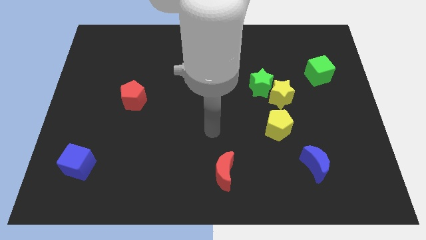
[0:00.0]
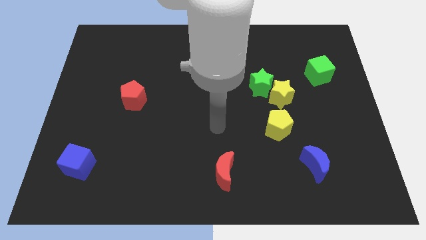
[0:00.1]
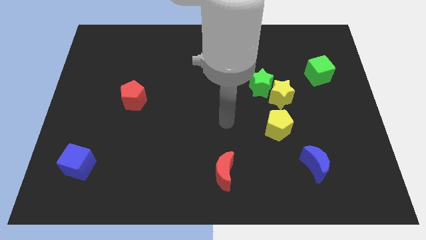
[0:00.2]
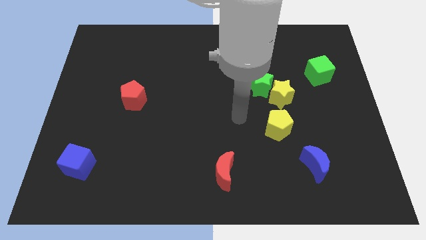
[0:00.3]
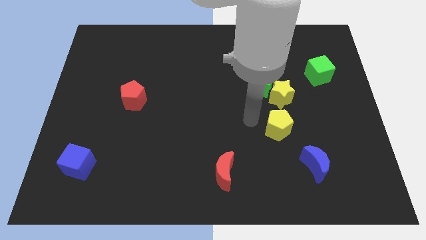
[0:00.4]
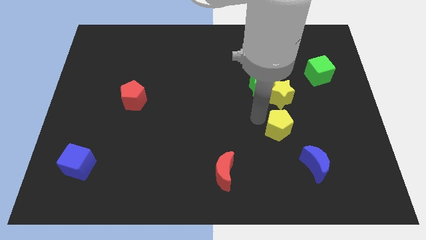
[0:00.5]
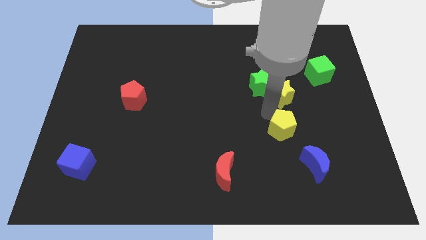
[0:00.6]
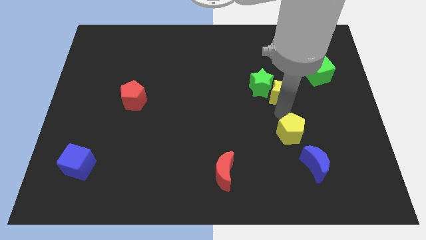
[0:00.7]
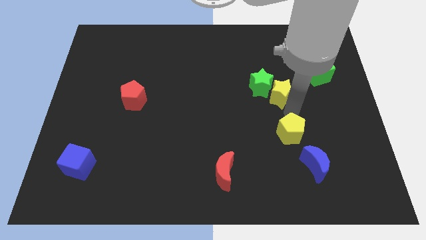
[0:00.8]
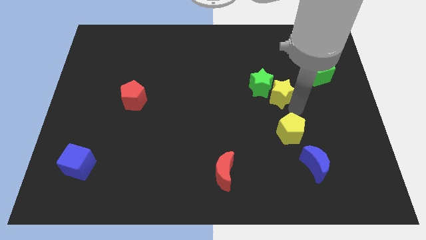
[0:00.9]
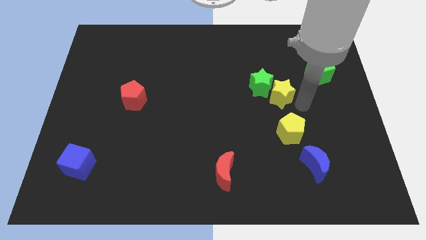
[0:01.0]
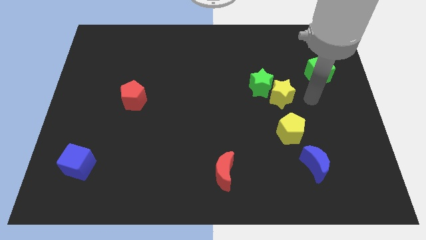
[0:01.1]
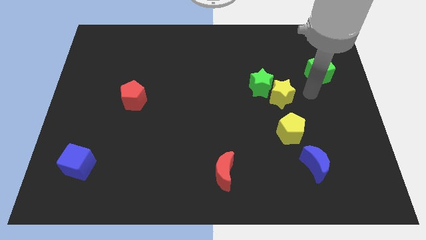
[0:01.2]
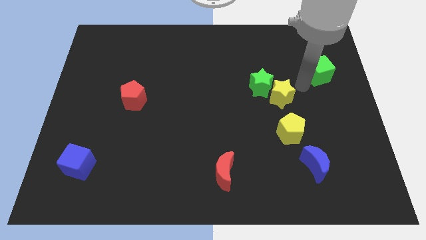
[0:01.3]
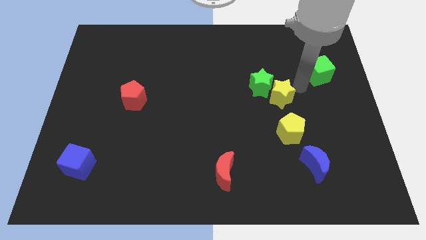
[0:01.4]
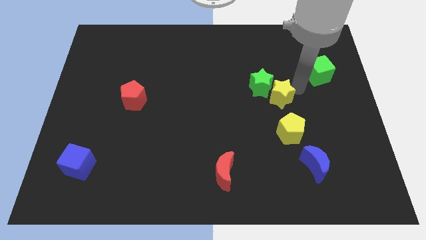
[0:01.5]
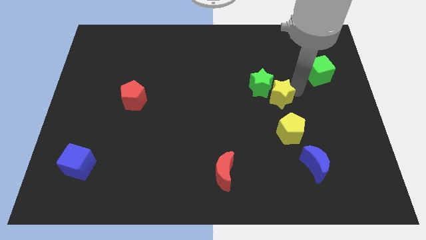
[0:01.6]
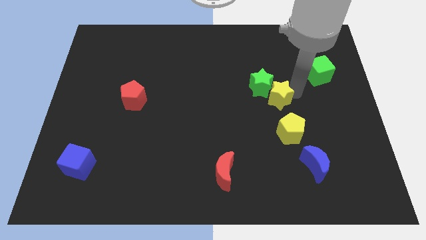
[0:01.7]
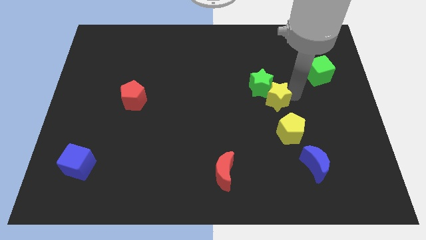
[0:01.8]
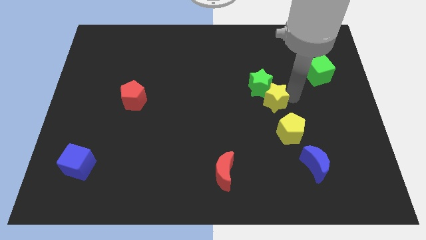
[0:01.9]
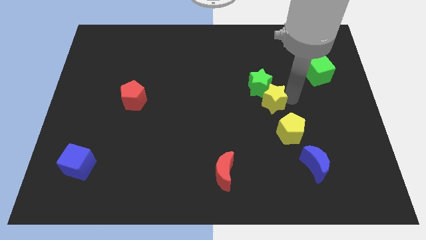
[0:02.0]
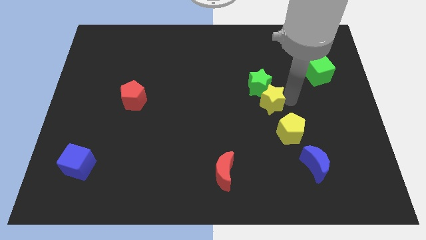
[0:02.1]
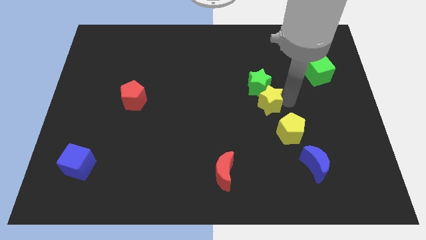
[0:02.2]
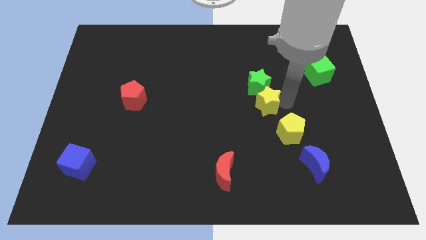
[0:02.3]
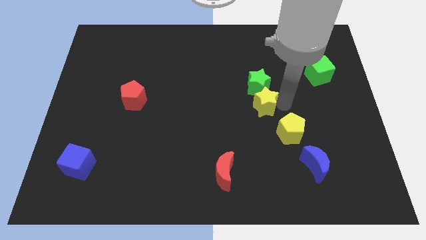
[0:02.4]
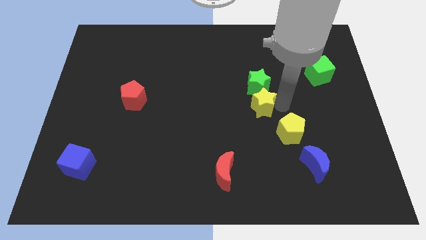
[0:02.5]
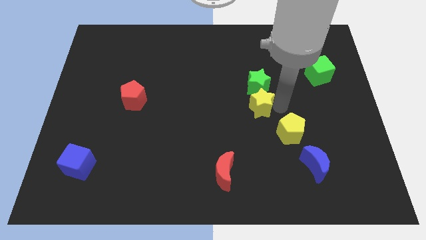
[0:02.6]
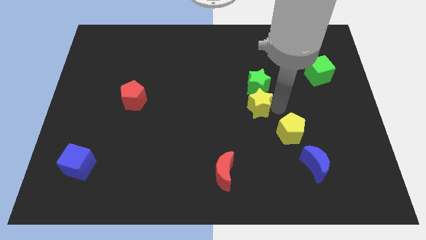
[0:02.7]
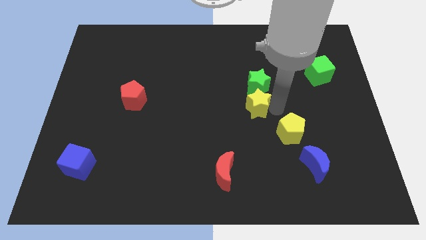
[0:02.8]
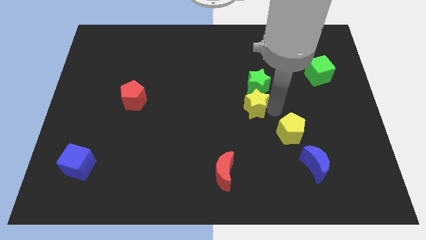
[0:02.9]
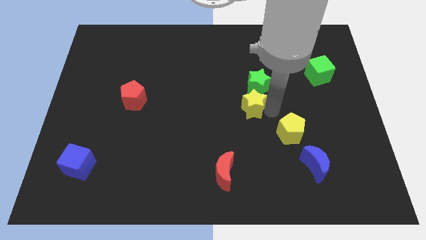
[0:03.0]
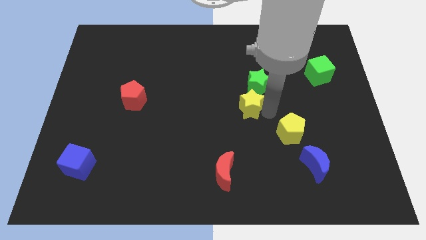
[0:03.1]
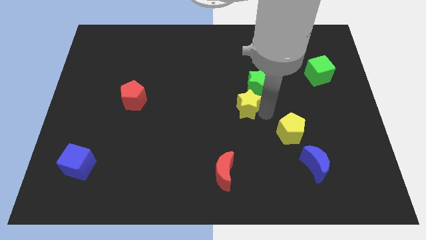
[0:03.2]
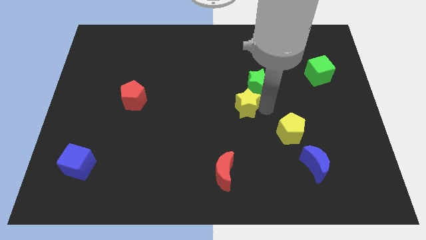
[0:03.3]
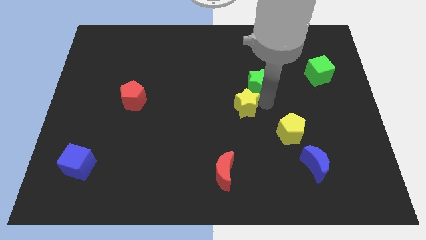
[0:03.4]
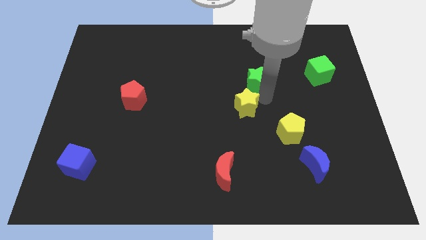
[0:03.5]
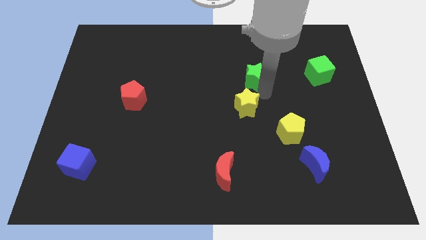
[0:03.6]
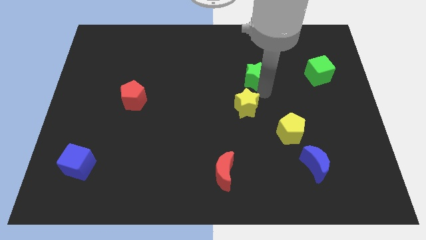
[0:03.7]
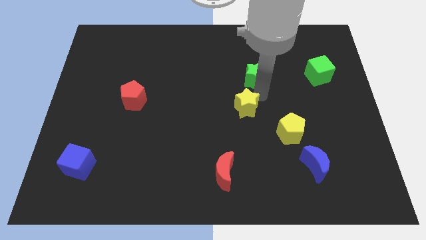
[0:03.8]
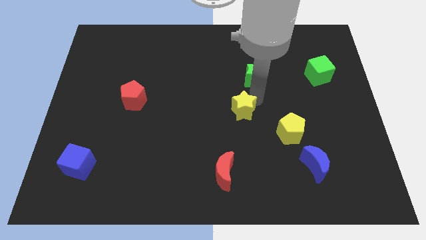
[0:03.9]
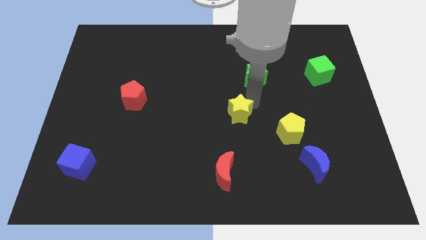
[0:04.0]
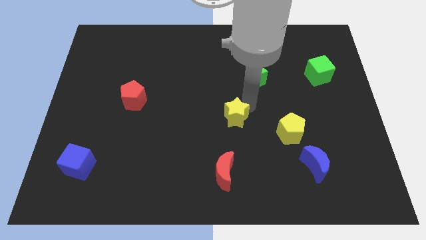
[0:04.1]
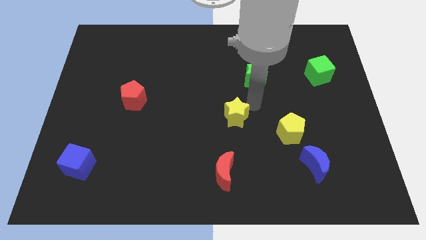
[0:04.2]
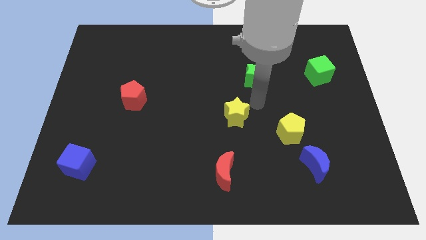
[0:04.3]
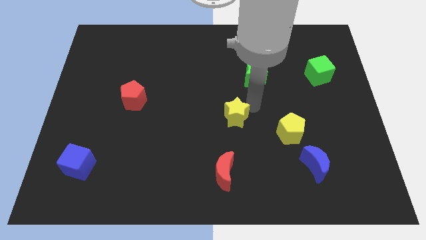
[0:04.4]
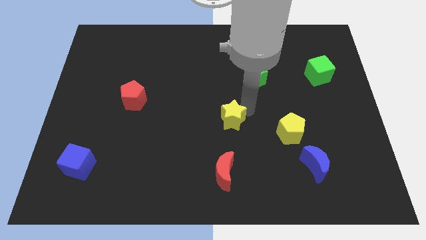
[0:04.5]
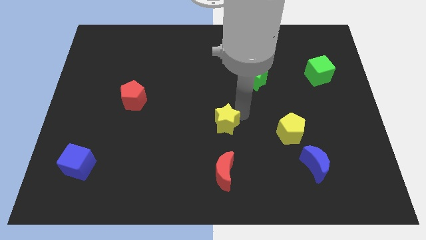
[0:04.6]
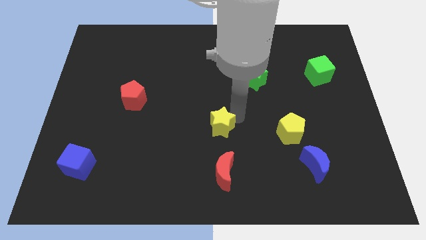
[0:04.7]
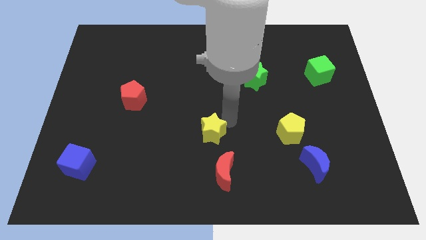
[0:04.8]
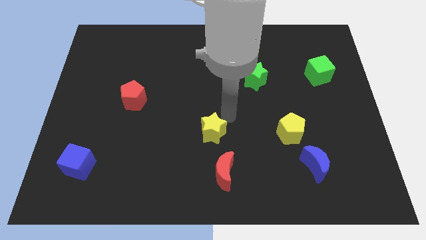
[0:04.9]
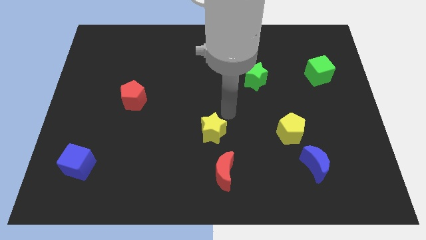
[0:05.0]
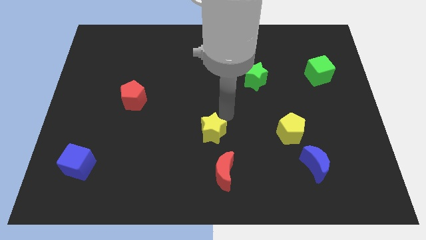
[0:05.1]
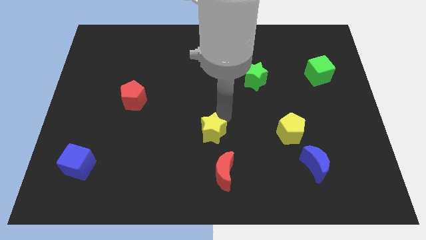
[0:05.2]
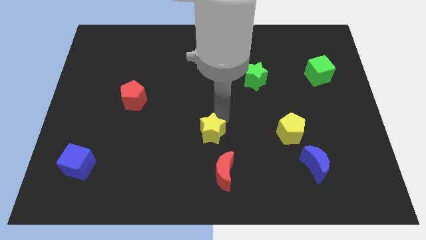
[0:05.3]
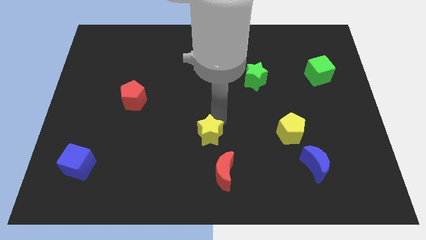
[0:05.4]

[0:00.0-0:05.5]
slide the yellow star to the top left side of the red moon

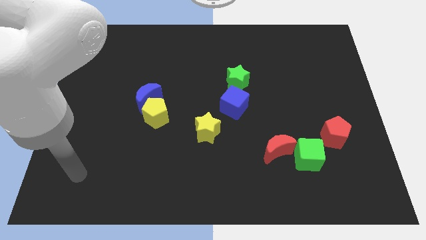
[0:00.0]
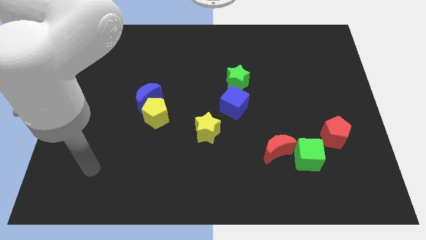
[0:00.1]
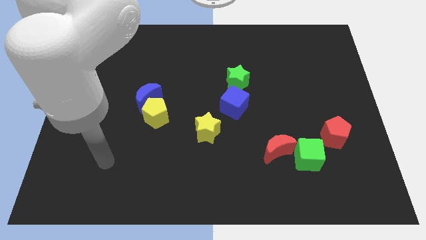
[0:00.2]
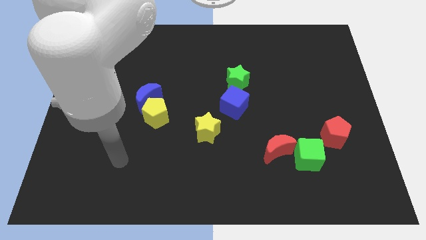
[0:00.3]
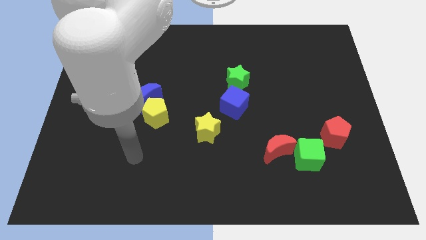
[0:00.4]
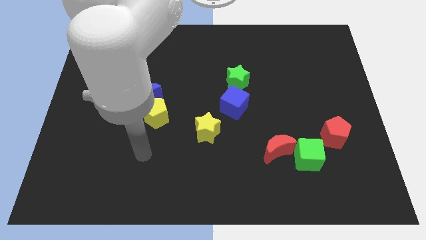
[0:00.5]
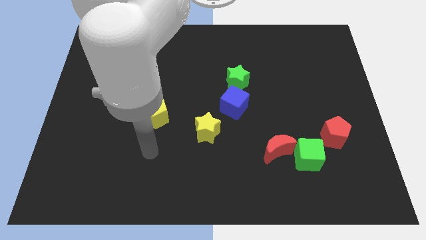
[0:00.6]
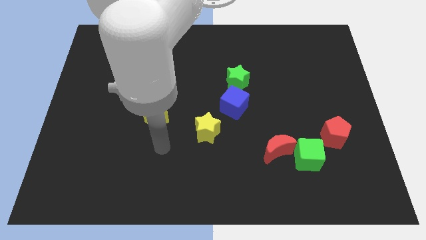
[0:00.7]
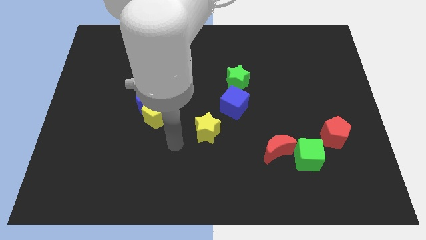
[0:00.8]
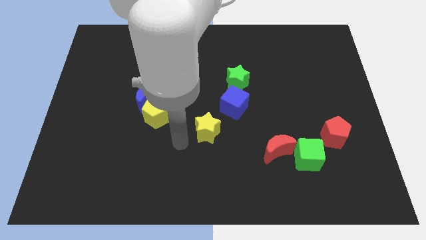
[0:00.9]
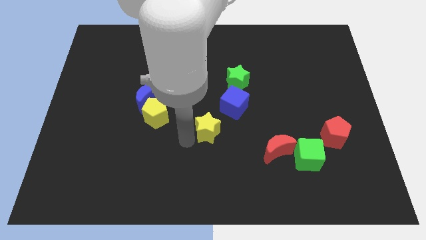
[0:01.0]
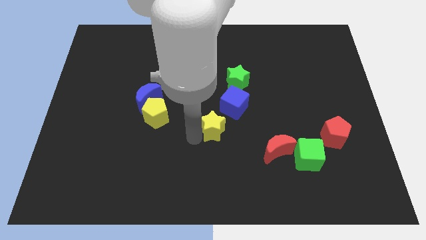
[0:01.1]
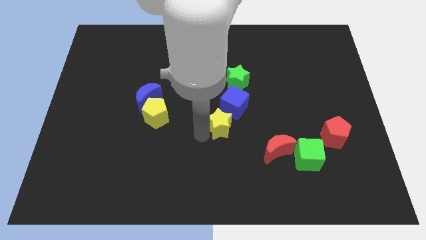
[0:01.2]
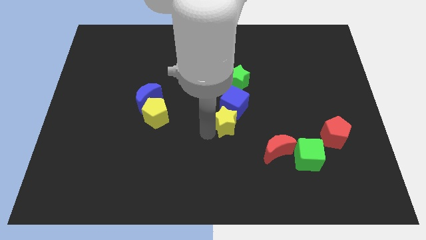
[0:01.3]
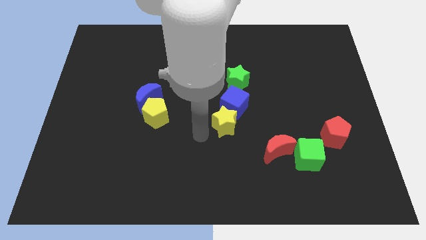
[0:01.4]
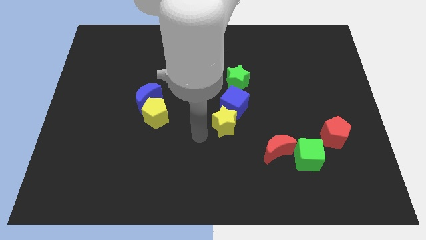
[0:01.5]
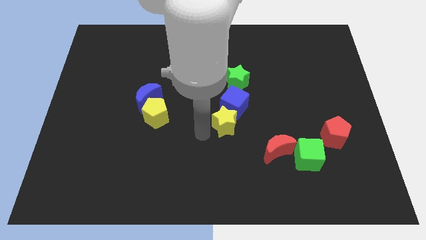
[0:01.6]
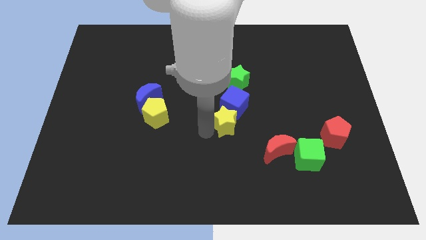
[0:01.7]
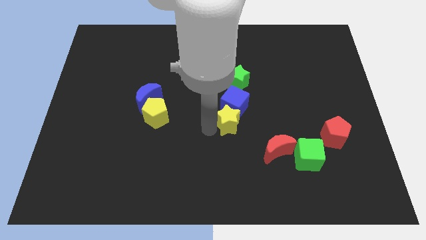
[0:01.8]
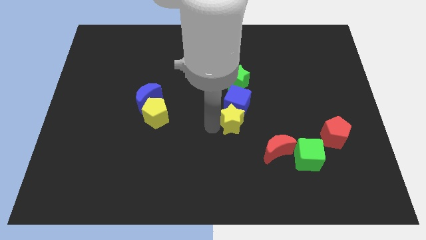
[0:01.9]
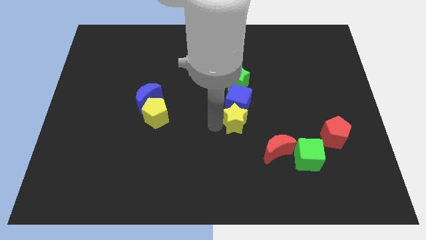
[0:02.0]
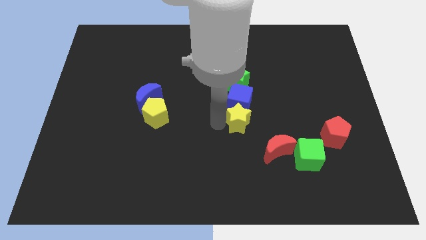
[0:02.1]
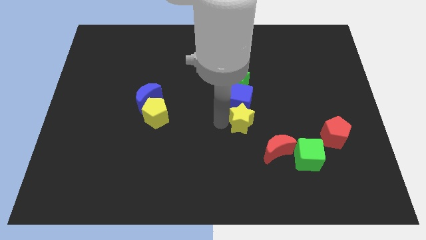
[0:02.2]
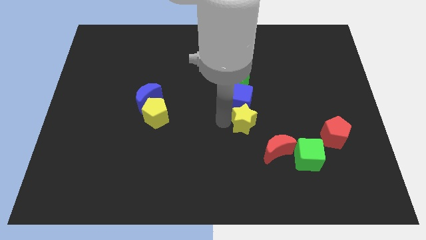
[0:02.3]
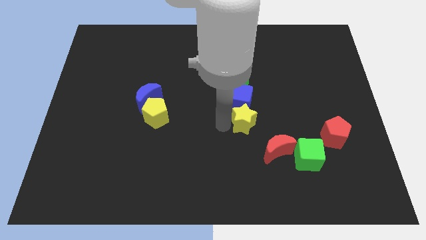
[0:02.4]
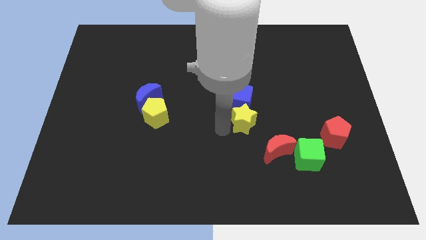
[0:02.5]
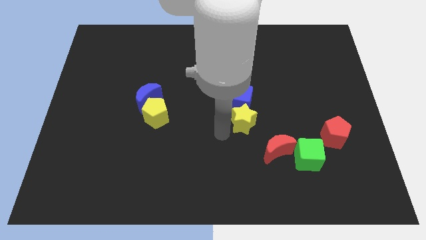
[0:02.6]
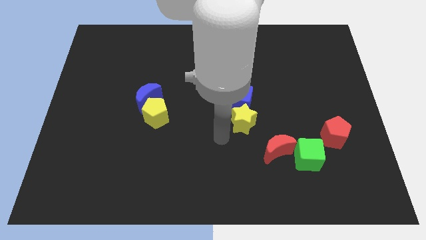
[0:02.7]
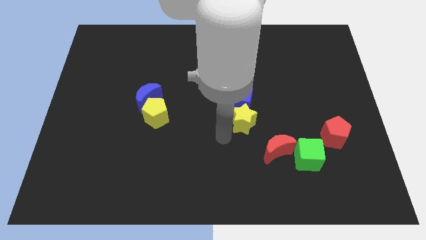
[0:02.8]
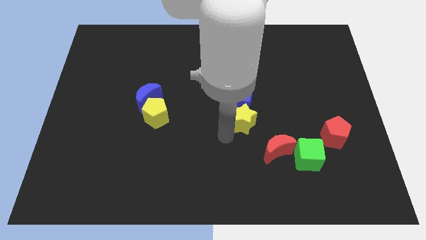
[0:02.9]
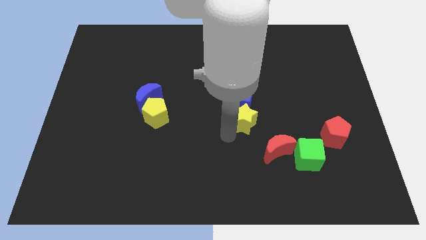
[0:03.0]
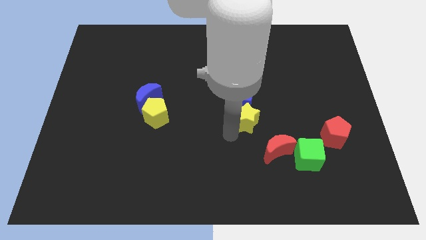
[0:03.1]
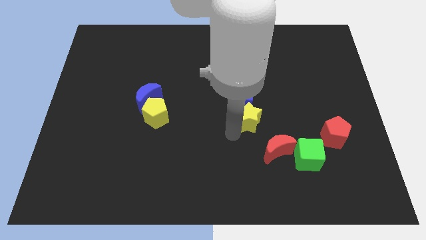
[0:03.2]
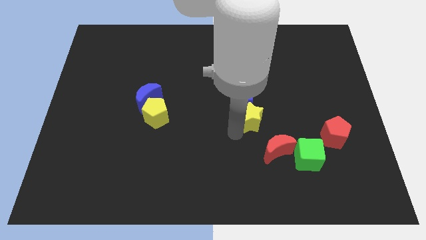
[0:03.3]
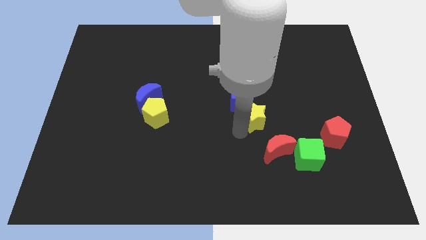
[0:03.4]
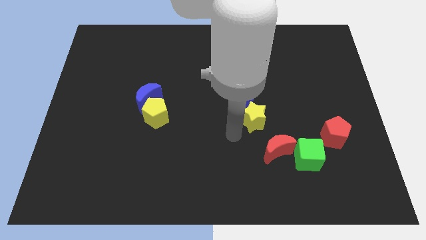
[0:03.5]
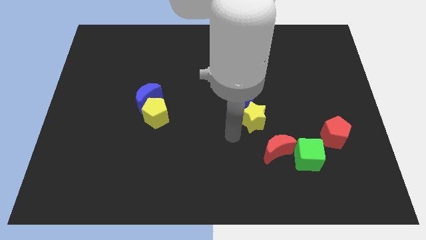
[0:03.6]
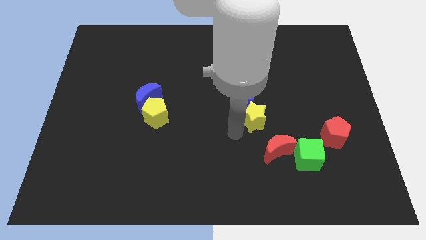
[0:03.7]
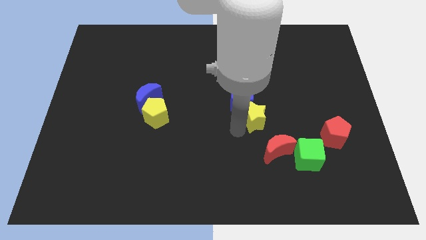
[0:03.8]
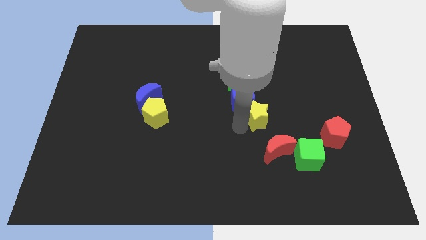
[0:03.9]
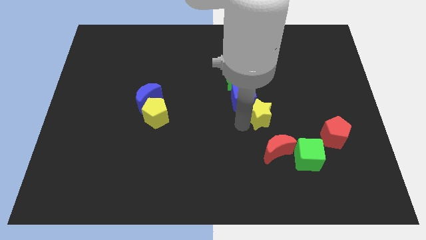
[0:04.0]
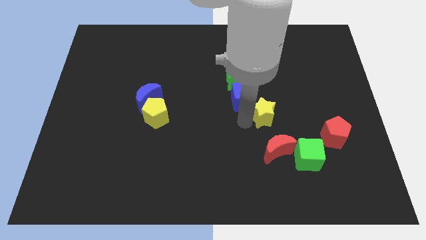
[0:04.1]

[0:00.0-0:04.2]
slide the yellow star to the right of the blue cube
